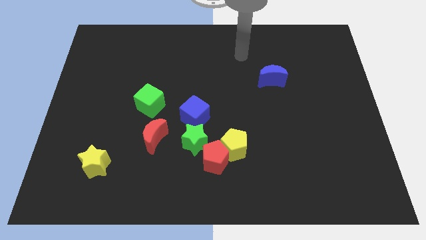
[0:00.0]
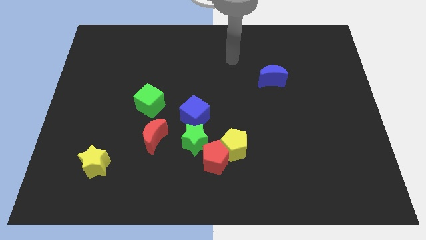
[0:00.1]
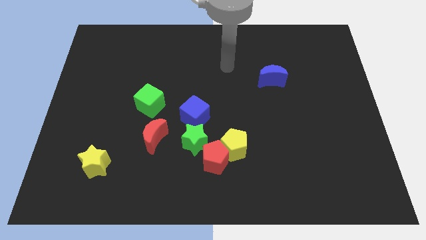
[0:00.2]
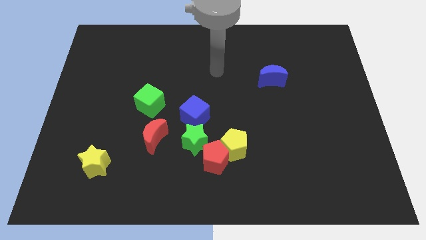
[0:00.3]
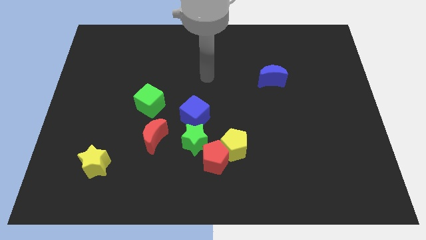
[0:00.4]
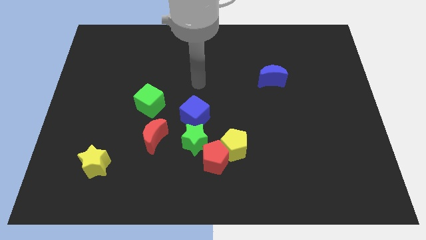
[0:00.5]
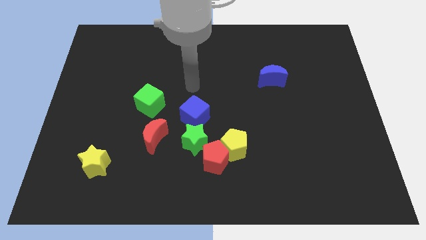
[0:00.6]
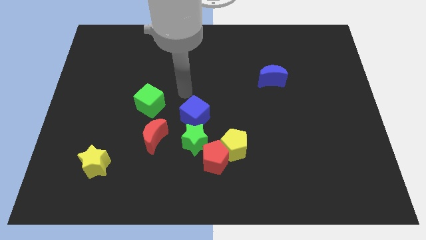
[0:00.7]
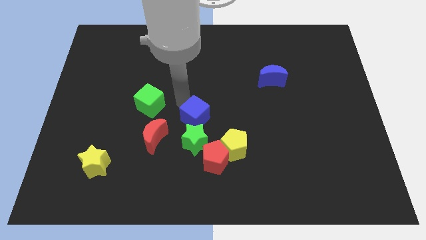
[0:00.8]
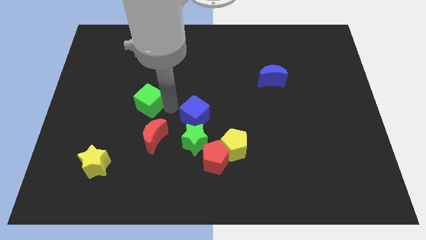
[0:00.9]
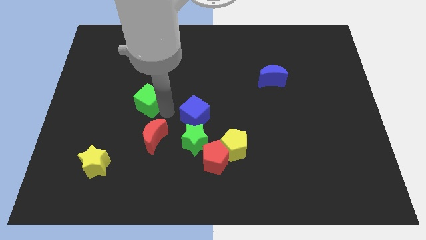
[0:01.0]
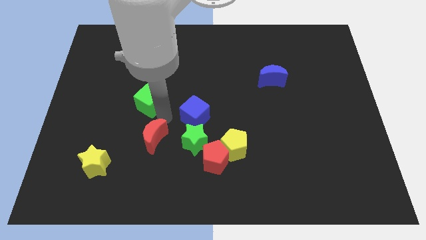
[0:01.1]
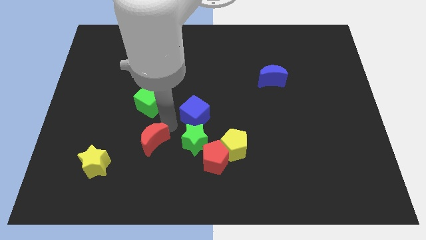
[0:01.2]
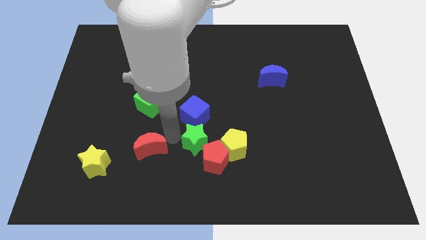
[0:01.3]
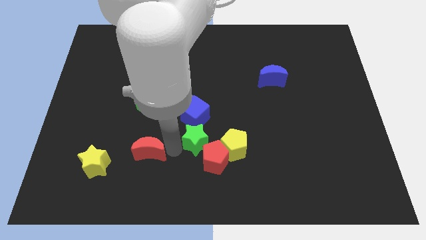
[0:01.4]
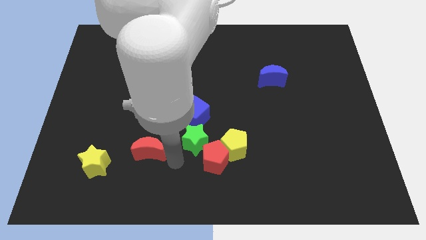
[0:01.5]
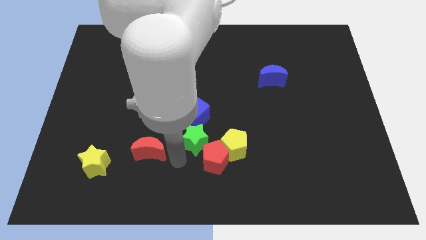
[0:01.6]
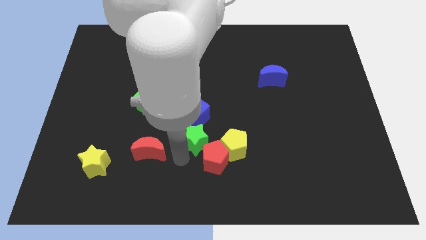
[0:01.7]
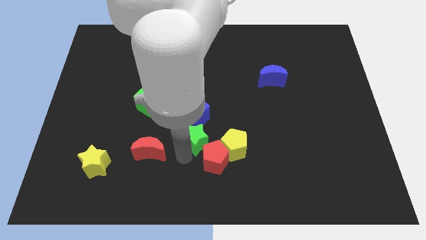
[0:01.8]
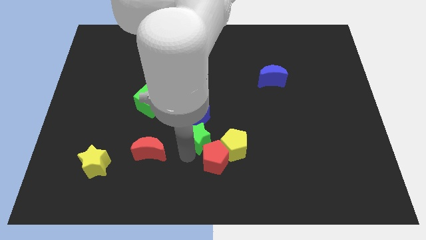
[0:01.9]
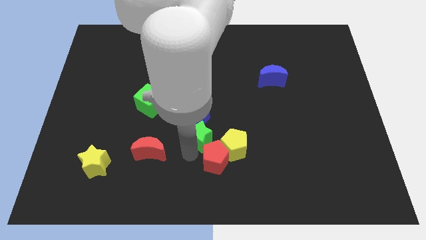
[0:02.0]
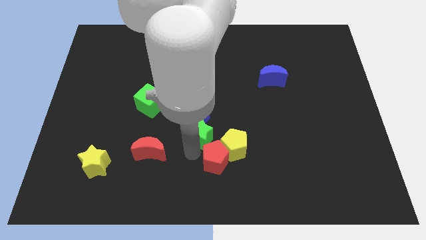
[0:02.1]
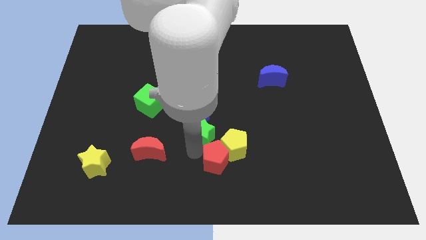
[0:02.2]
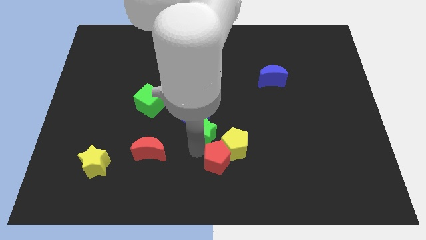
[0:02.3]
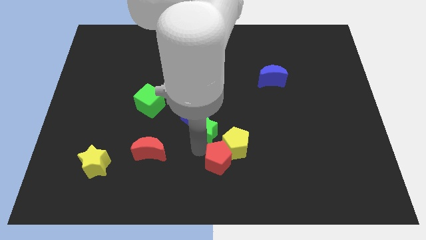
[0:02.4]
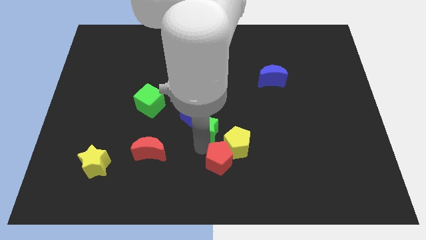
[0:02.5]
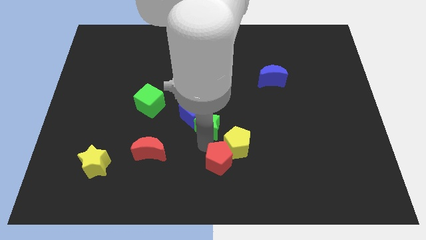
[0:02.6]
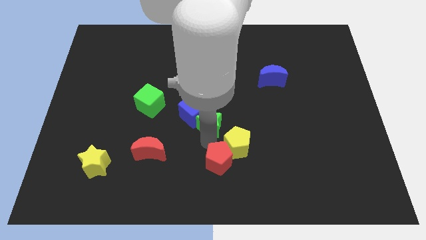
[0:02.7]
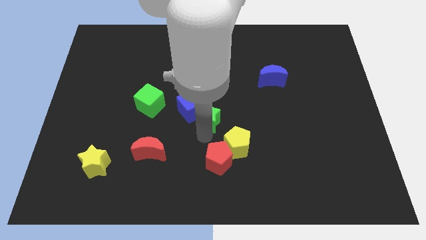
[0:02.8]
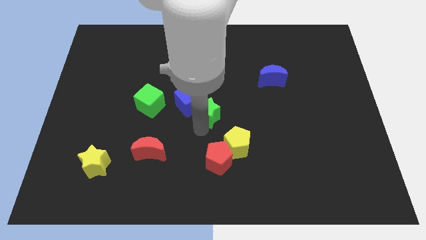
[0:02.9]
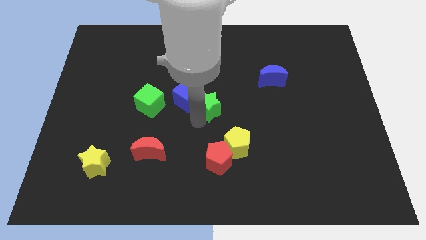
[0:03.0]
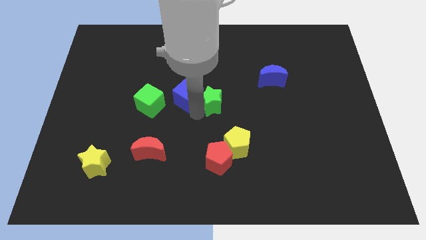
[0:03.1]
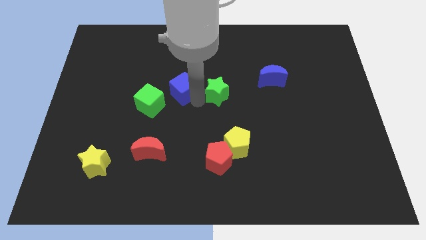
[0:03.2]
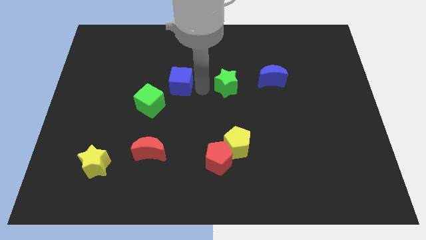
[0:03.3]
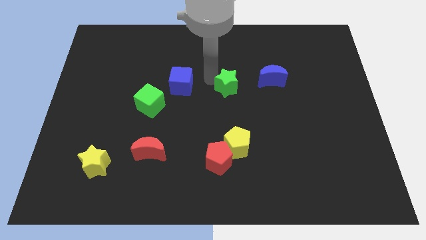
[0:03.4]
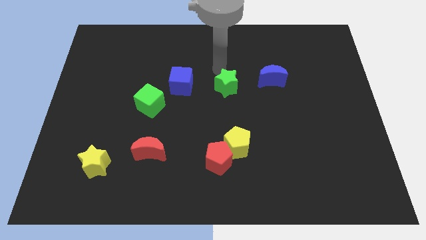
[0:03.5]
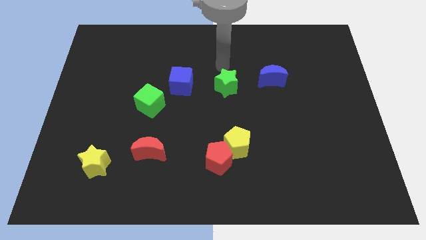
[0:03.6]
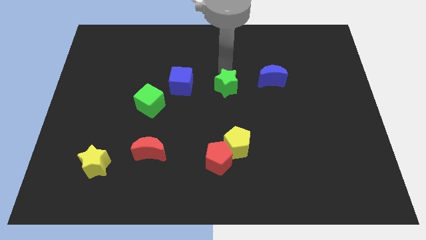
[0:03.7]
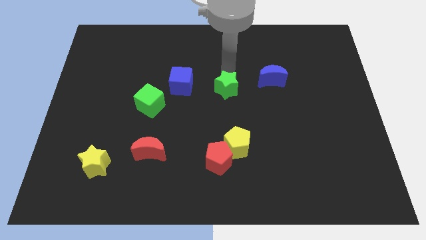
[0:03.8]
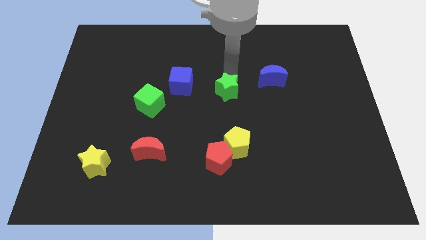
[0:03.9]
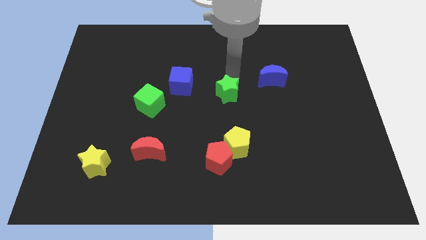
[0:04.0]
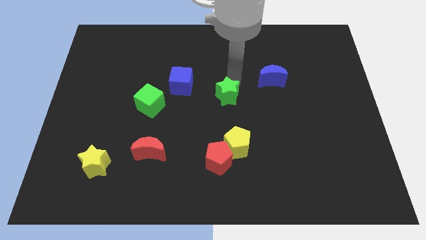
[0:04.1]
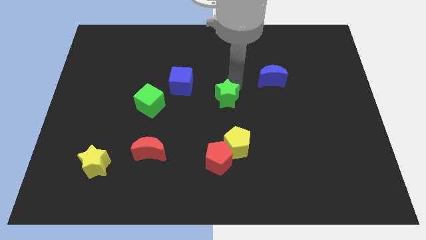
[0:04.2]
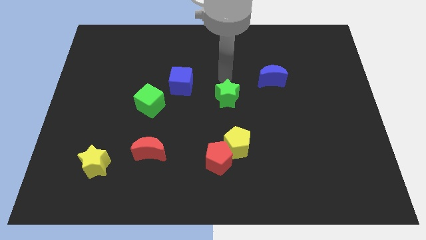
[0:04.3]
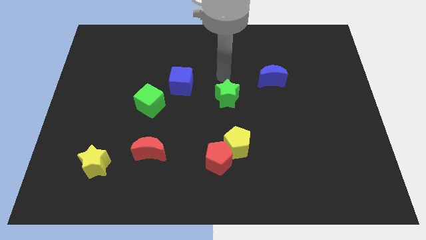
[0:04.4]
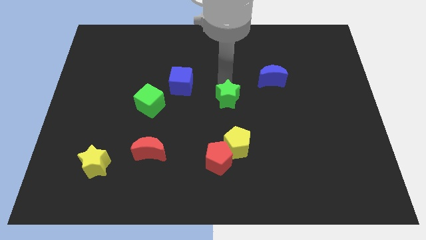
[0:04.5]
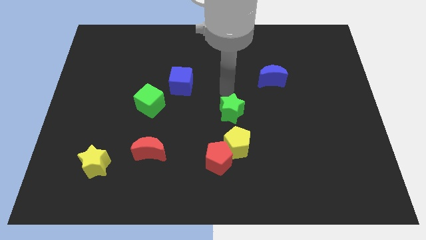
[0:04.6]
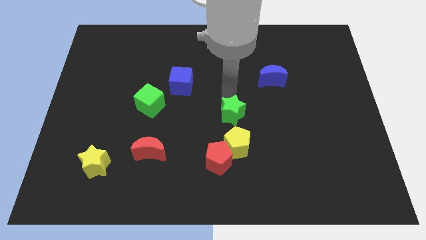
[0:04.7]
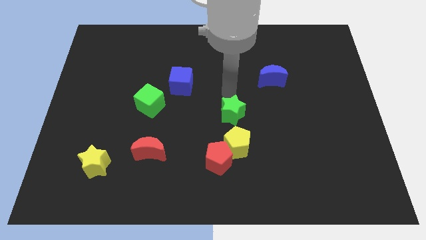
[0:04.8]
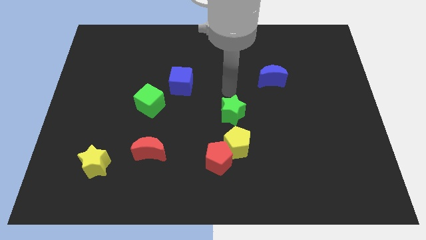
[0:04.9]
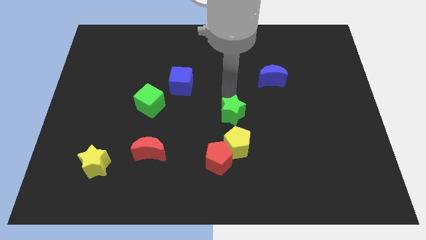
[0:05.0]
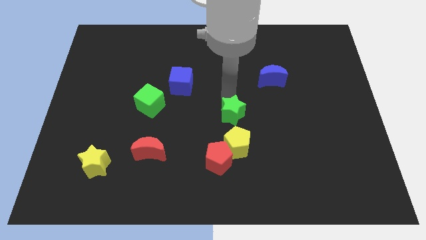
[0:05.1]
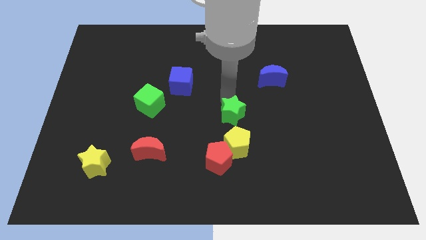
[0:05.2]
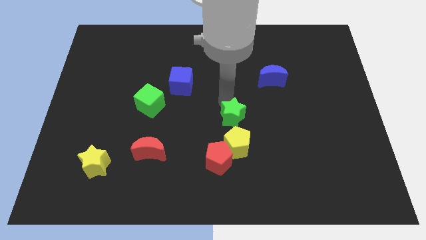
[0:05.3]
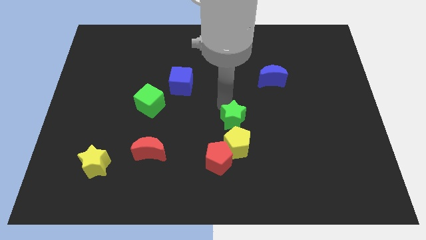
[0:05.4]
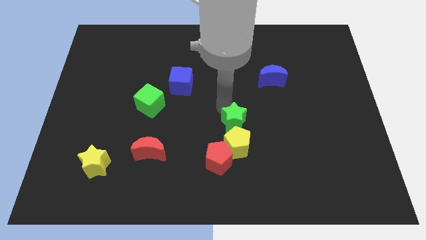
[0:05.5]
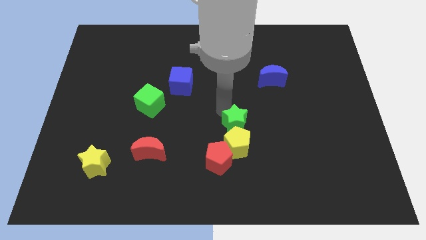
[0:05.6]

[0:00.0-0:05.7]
push the green star close to the yellow pentagon
